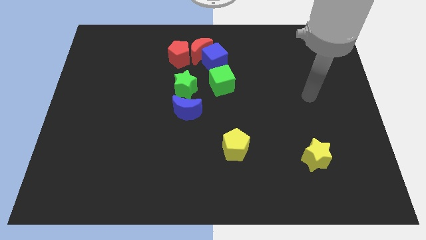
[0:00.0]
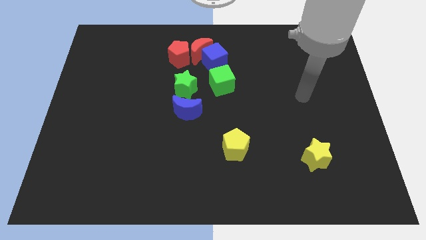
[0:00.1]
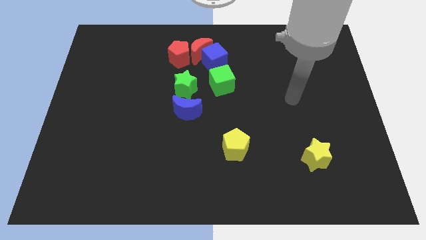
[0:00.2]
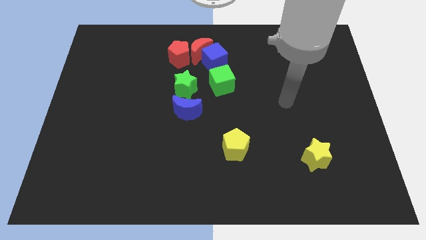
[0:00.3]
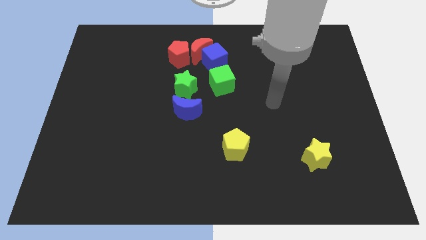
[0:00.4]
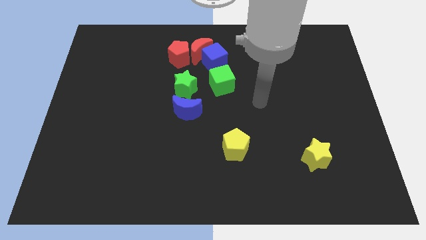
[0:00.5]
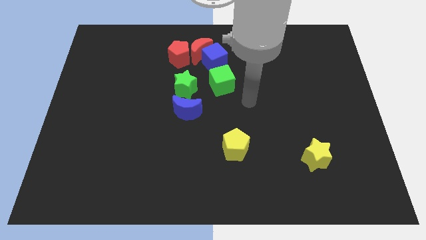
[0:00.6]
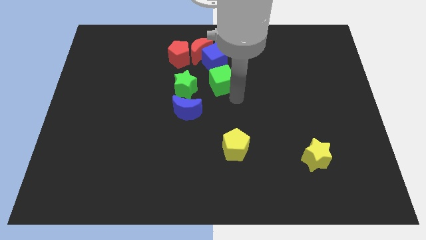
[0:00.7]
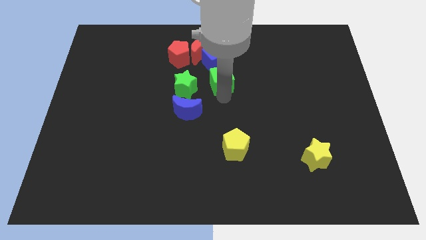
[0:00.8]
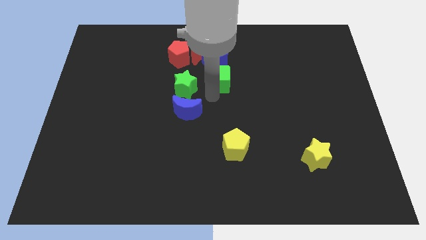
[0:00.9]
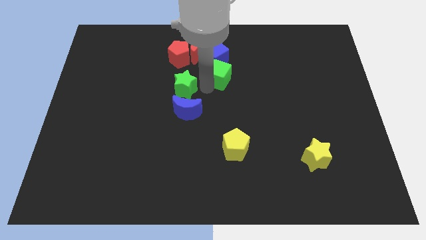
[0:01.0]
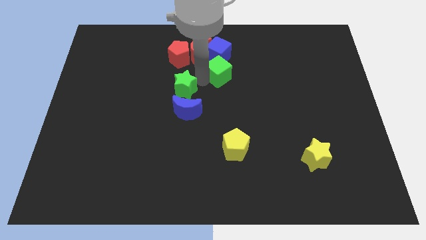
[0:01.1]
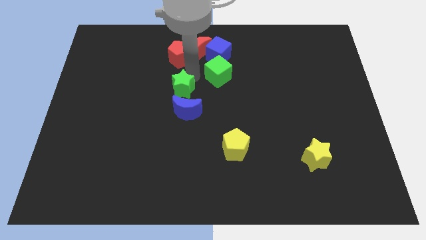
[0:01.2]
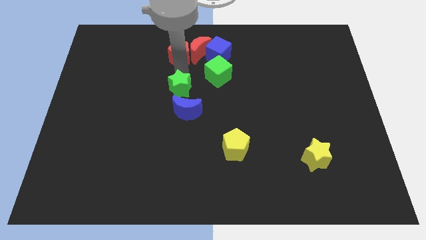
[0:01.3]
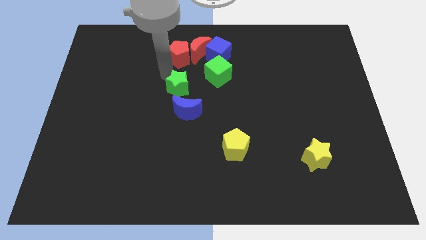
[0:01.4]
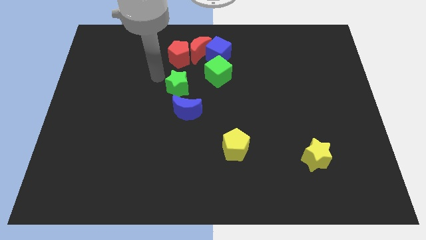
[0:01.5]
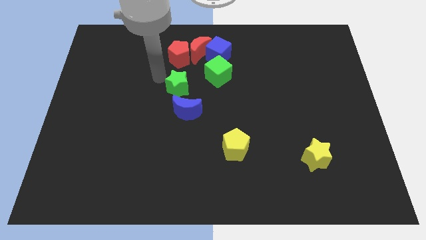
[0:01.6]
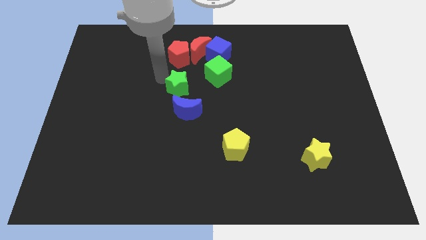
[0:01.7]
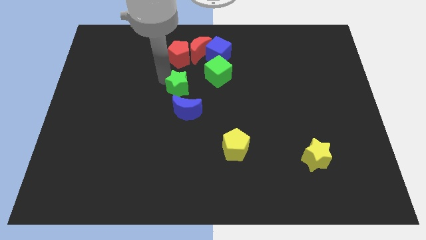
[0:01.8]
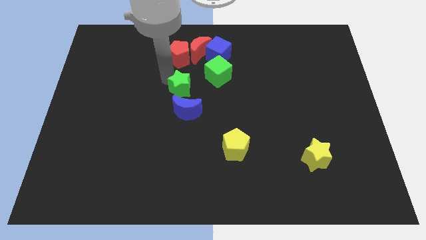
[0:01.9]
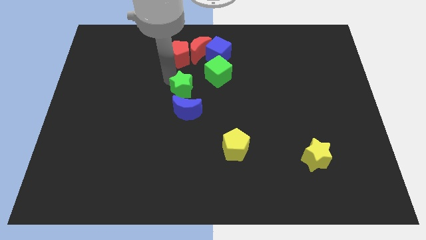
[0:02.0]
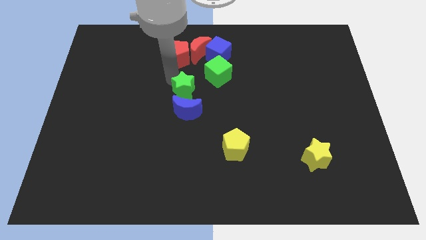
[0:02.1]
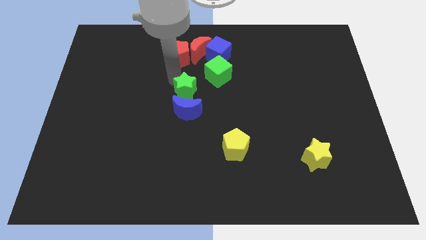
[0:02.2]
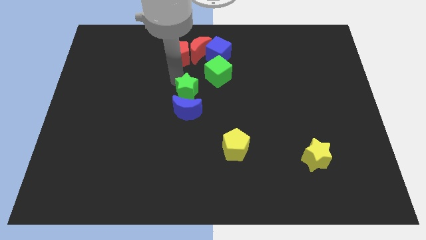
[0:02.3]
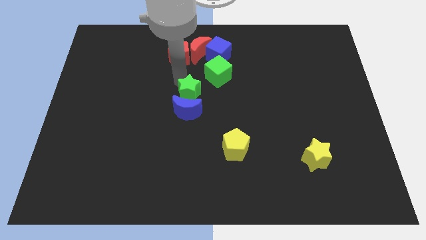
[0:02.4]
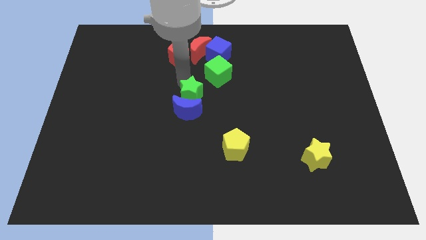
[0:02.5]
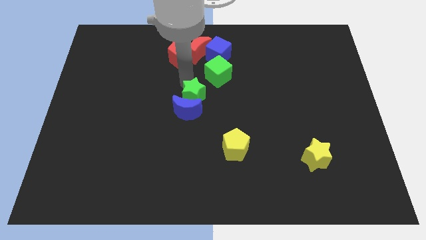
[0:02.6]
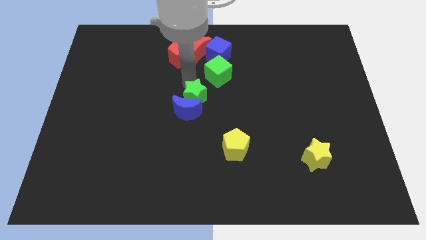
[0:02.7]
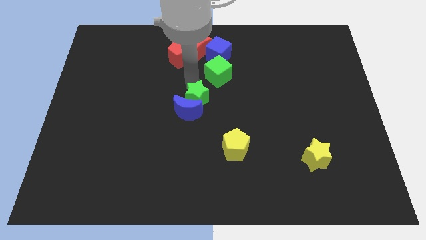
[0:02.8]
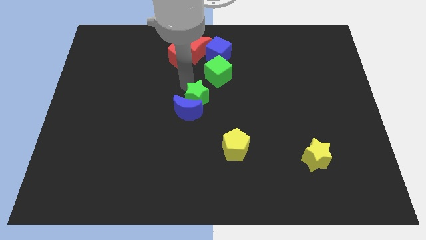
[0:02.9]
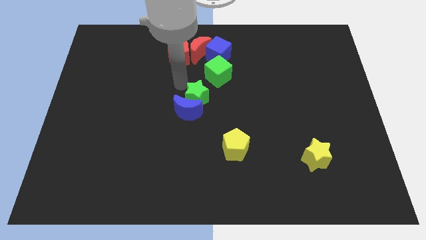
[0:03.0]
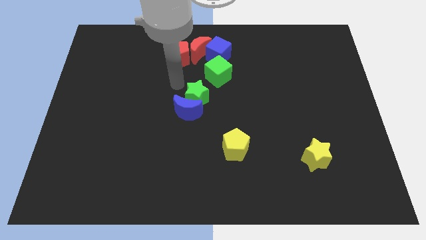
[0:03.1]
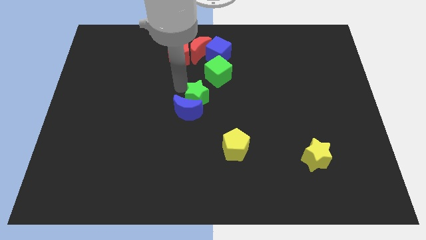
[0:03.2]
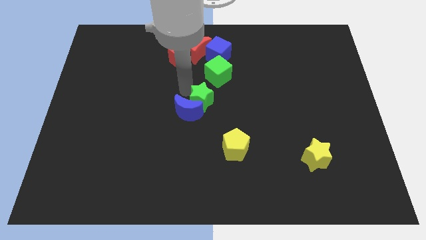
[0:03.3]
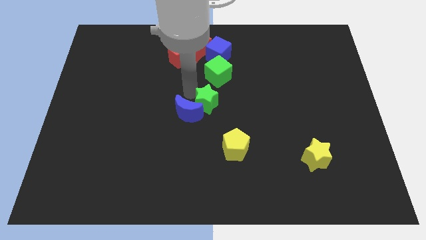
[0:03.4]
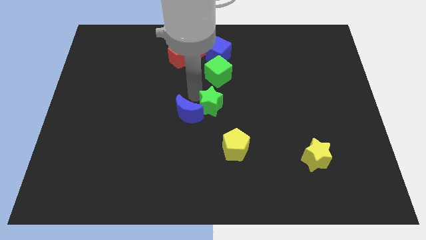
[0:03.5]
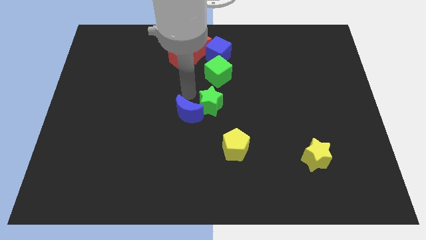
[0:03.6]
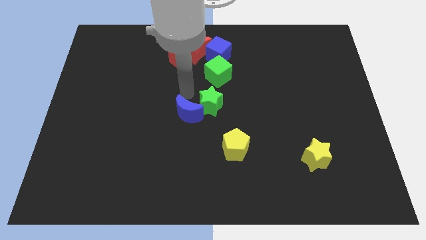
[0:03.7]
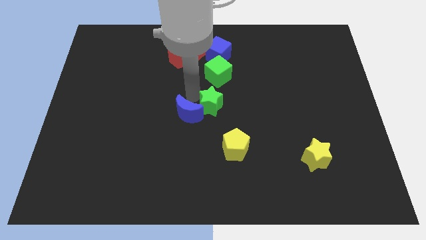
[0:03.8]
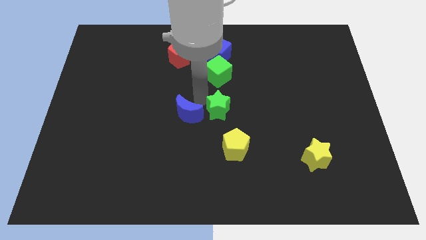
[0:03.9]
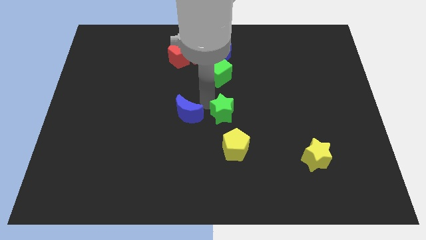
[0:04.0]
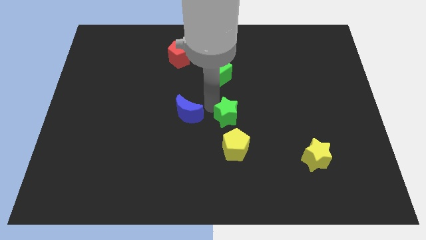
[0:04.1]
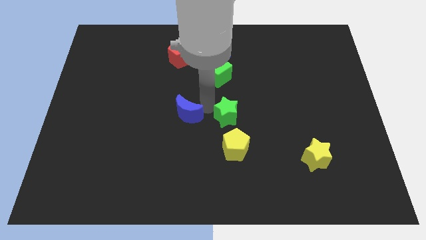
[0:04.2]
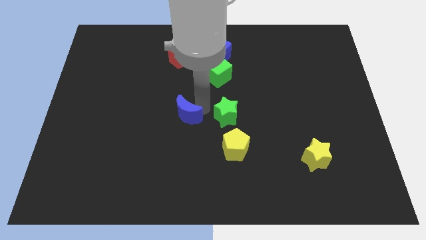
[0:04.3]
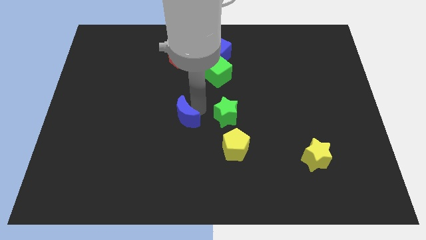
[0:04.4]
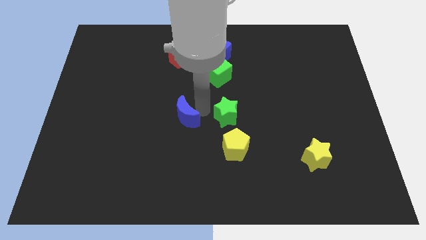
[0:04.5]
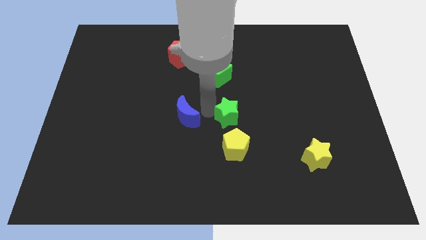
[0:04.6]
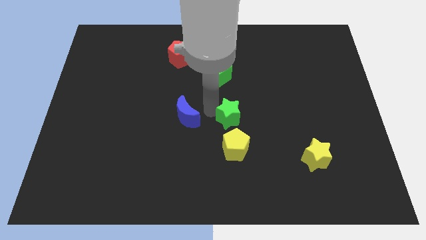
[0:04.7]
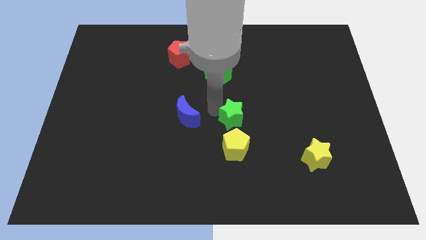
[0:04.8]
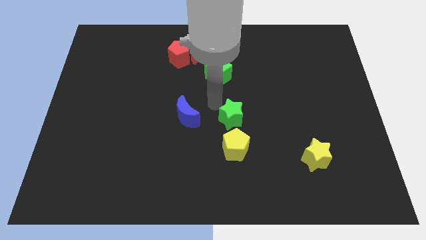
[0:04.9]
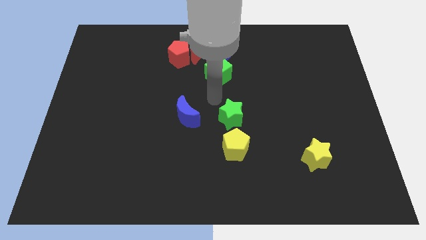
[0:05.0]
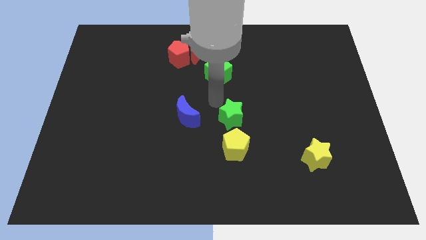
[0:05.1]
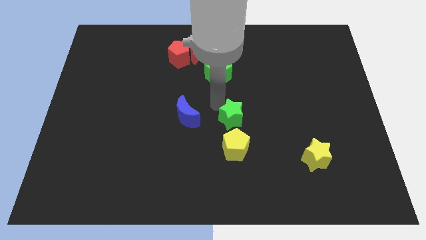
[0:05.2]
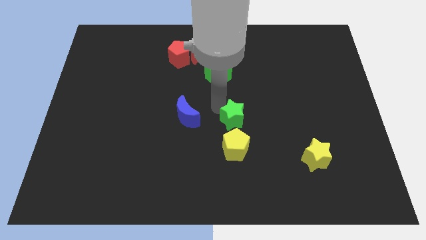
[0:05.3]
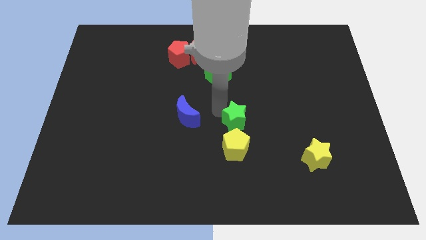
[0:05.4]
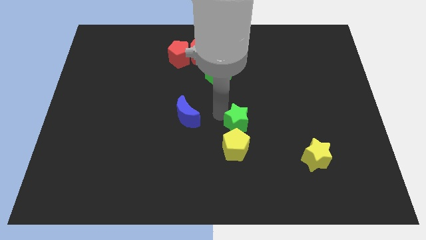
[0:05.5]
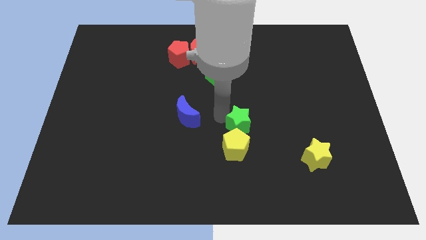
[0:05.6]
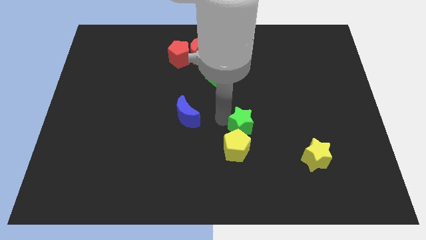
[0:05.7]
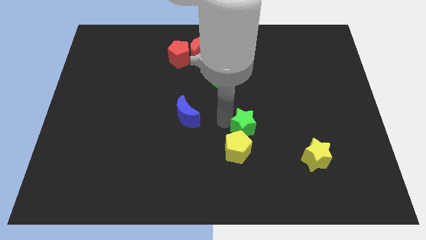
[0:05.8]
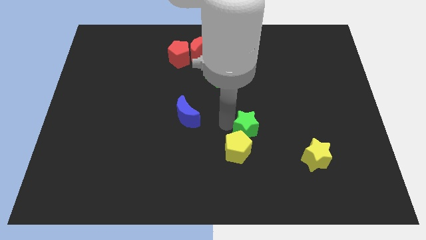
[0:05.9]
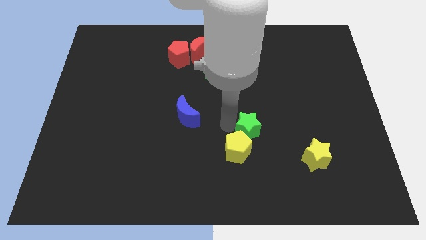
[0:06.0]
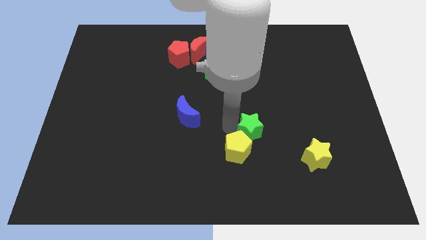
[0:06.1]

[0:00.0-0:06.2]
slide the green star downwards and then right

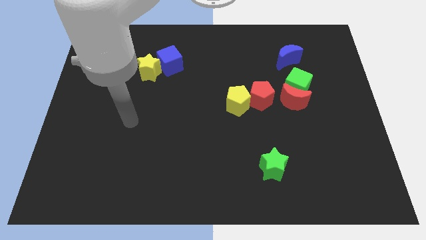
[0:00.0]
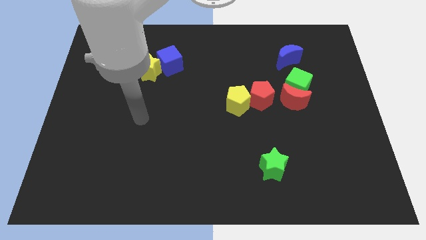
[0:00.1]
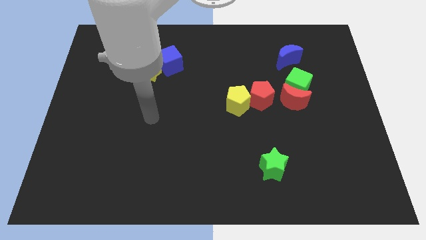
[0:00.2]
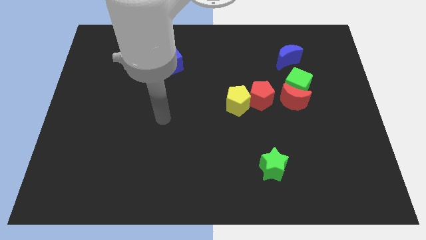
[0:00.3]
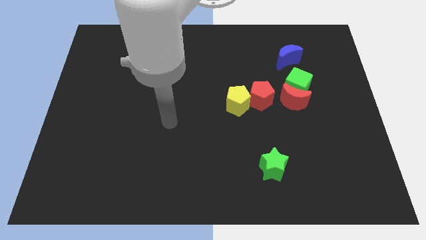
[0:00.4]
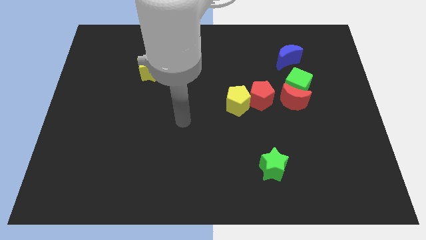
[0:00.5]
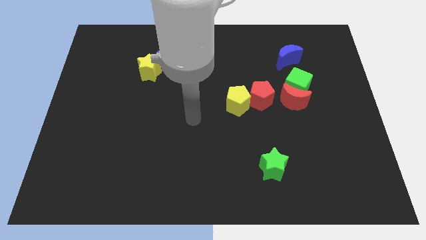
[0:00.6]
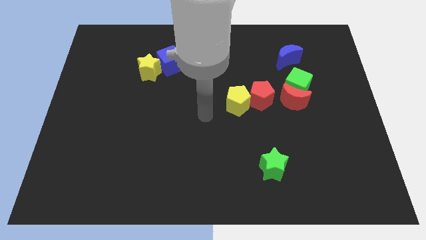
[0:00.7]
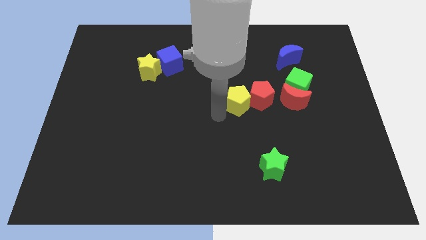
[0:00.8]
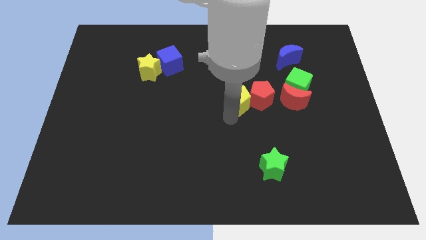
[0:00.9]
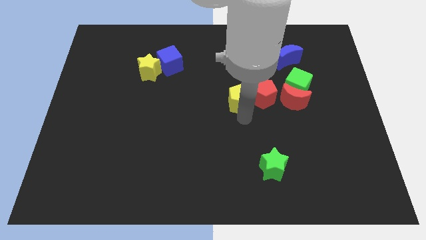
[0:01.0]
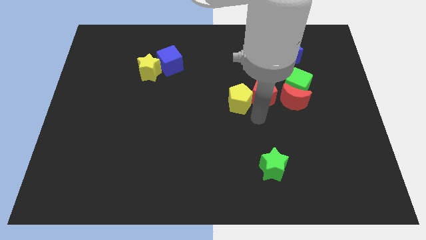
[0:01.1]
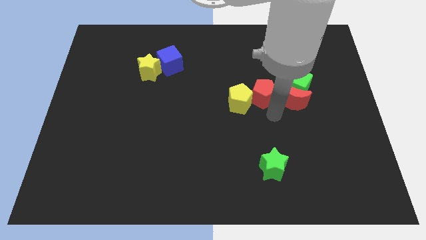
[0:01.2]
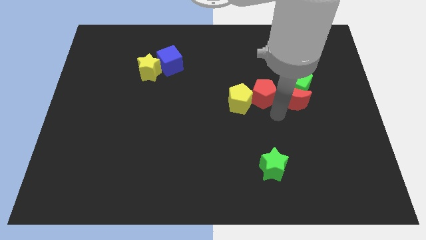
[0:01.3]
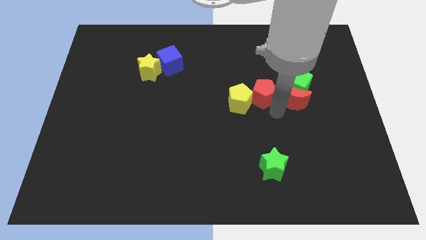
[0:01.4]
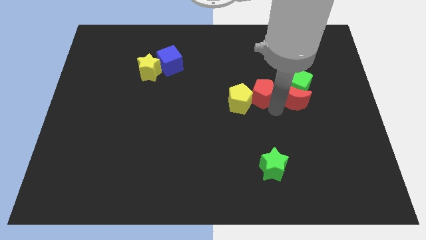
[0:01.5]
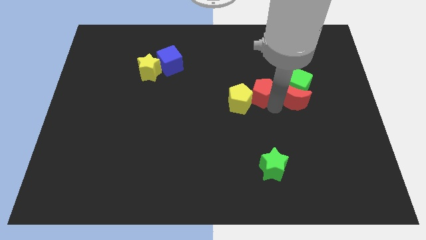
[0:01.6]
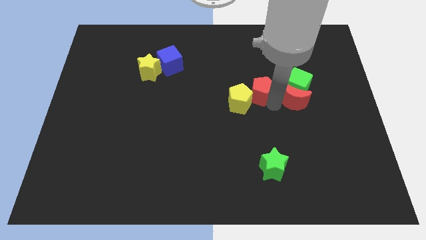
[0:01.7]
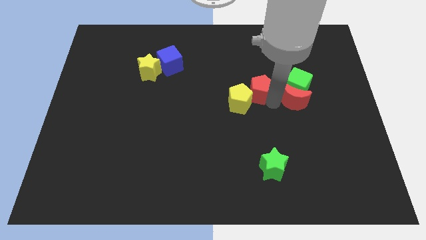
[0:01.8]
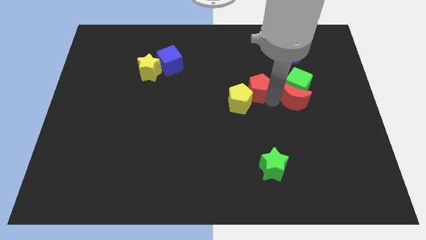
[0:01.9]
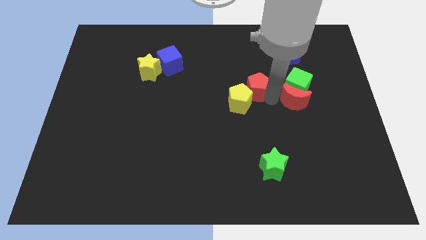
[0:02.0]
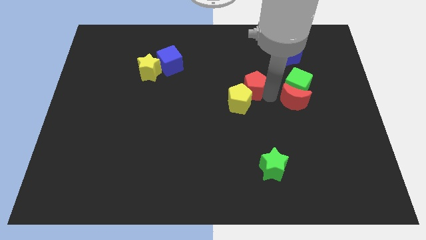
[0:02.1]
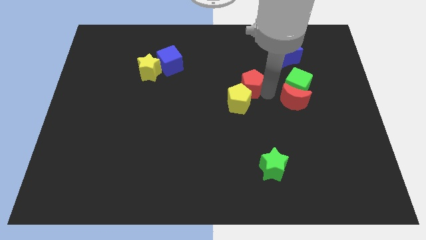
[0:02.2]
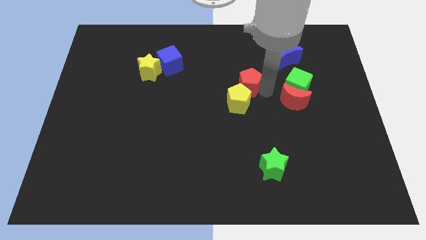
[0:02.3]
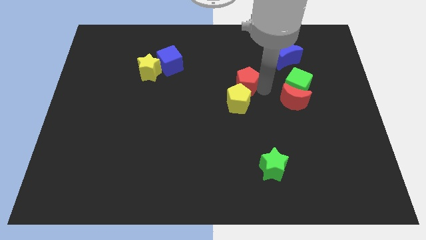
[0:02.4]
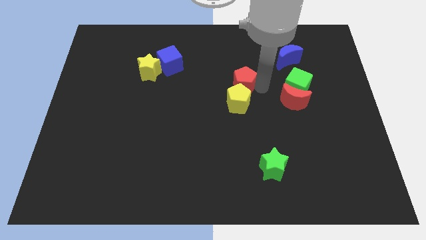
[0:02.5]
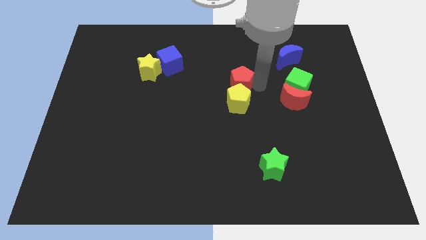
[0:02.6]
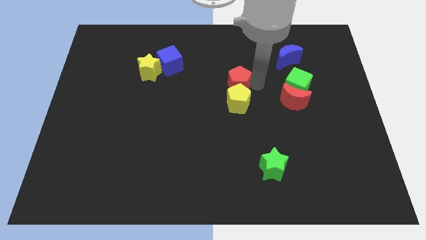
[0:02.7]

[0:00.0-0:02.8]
slightly move the red pentagon upwards and then left
